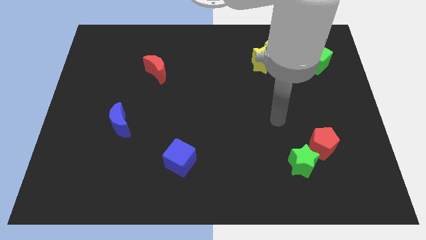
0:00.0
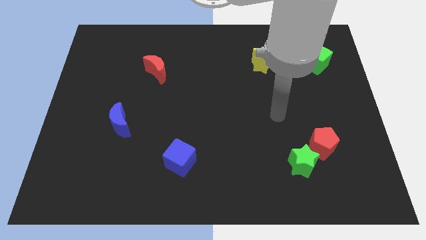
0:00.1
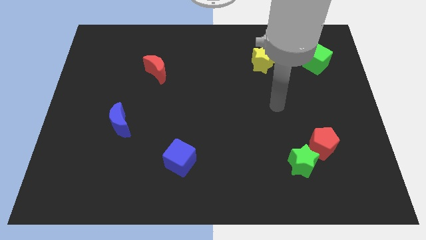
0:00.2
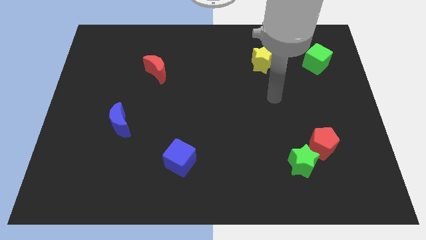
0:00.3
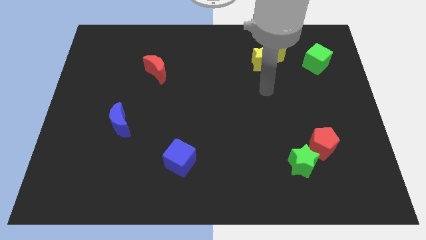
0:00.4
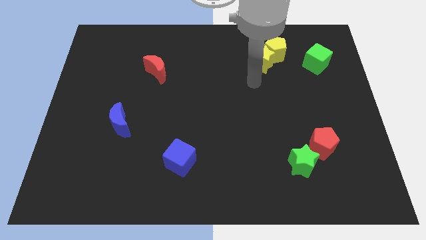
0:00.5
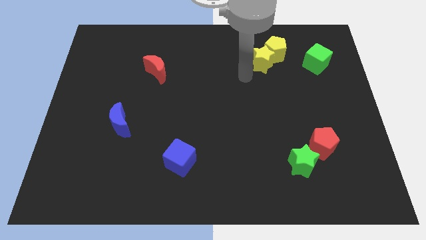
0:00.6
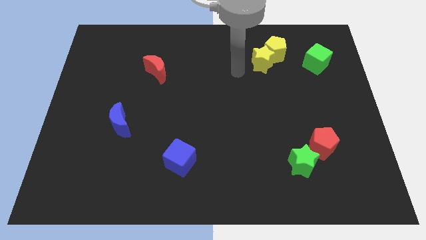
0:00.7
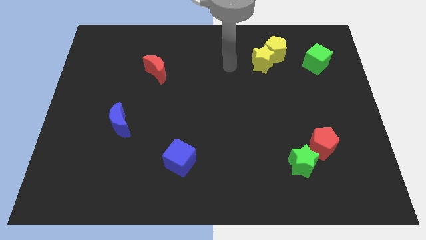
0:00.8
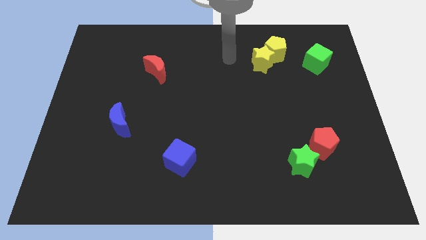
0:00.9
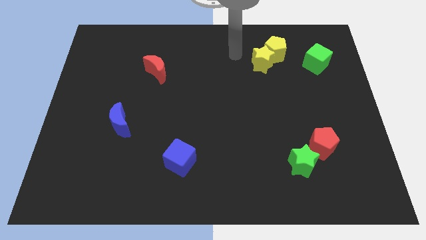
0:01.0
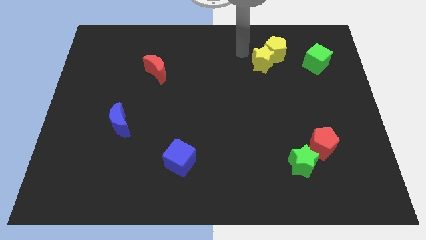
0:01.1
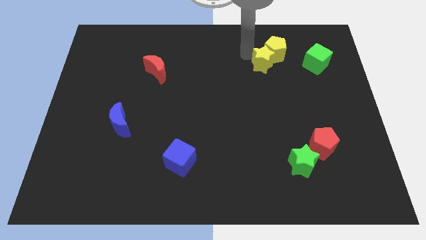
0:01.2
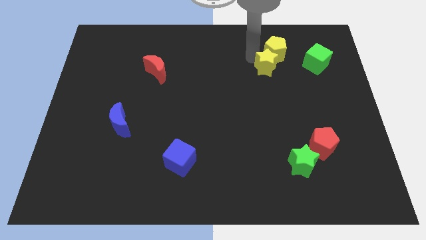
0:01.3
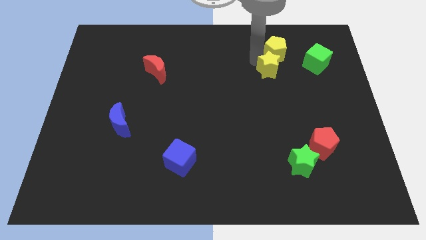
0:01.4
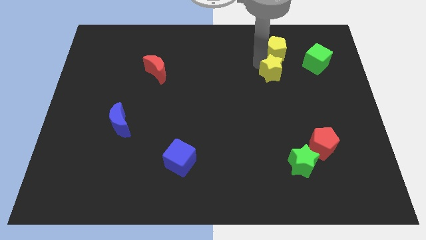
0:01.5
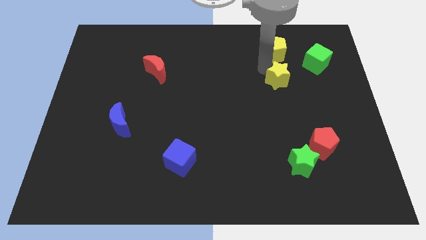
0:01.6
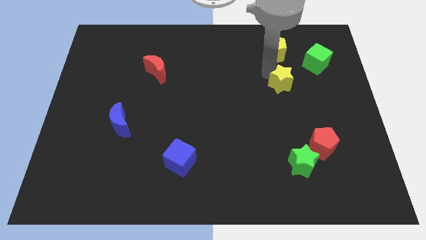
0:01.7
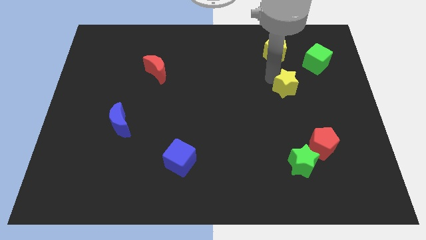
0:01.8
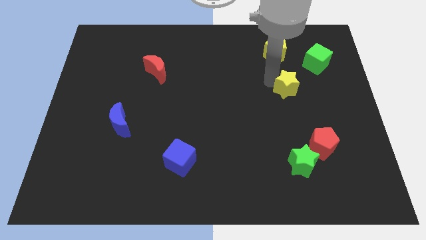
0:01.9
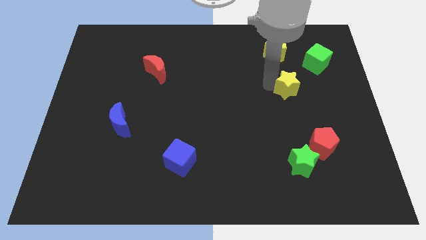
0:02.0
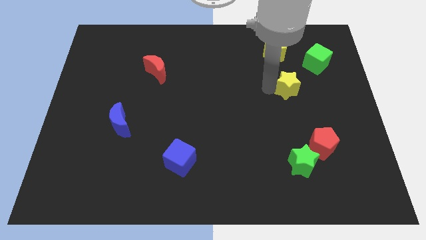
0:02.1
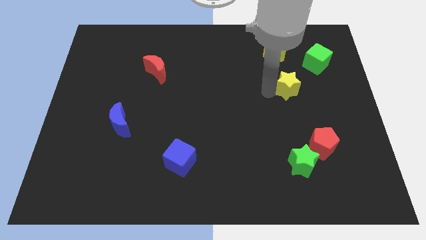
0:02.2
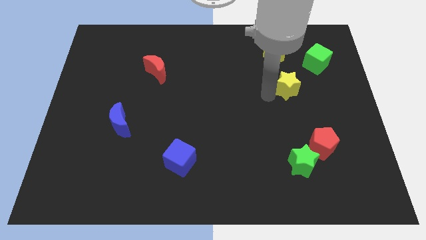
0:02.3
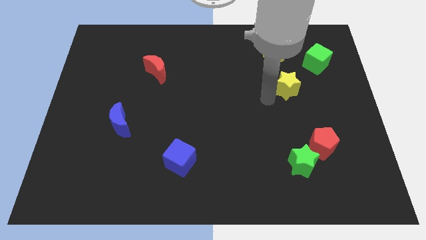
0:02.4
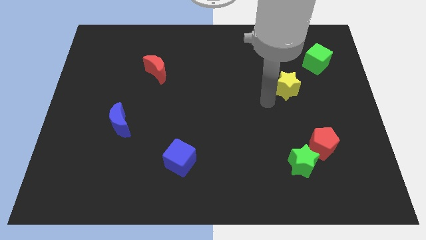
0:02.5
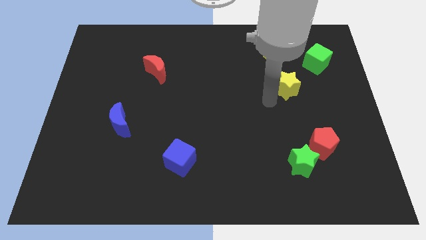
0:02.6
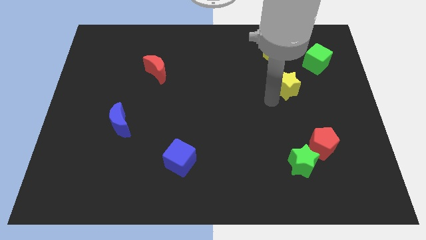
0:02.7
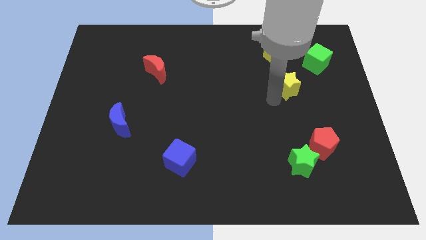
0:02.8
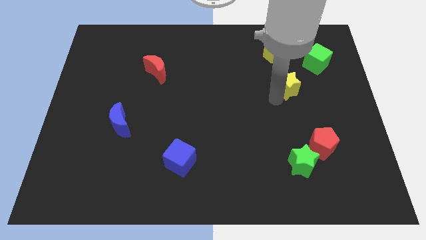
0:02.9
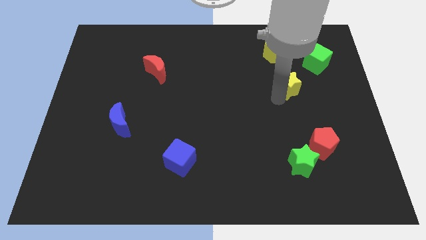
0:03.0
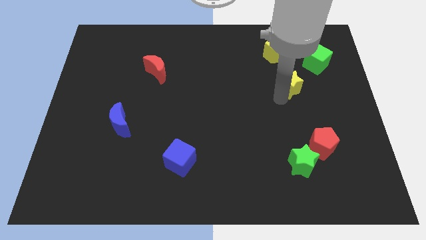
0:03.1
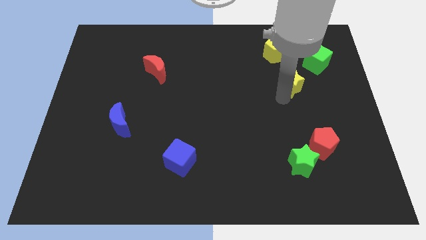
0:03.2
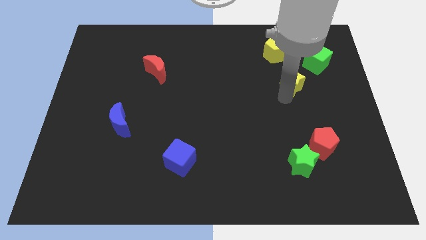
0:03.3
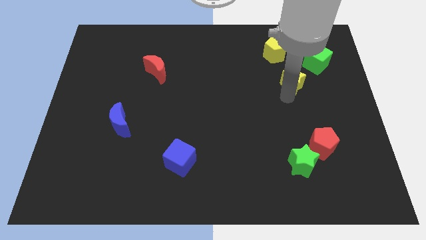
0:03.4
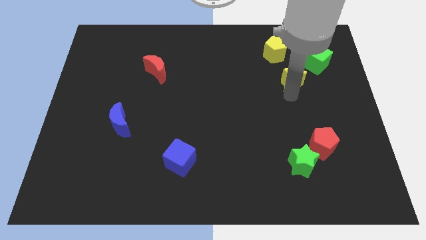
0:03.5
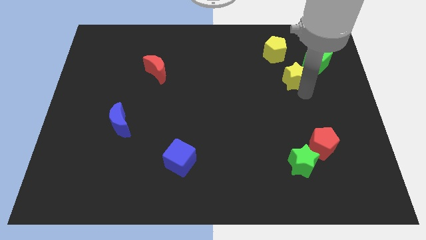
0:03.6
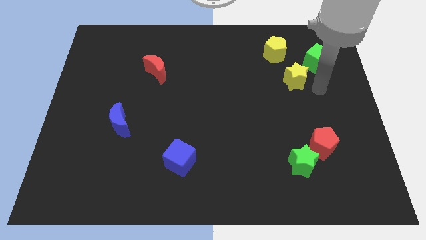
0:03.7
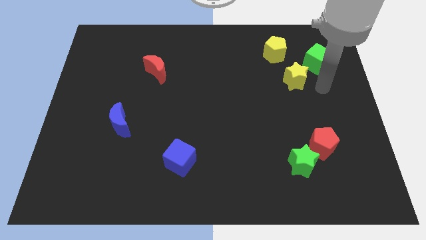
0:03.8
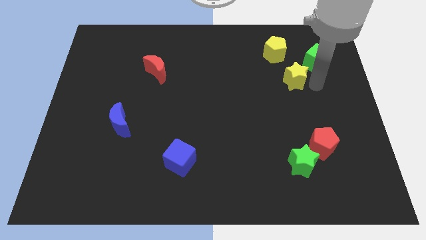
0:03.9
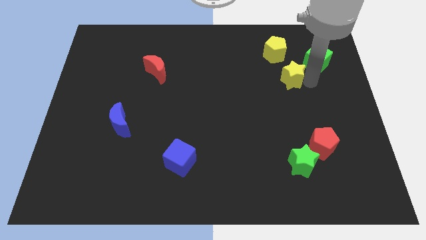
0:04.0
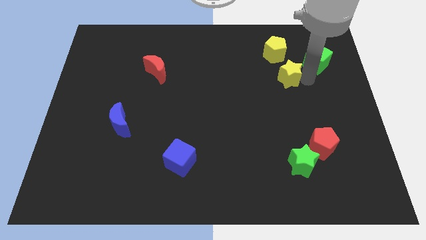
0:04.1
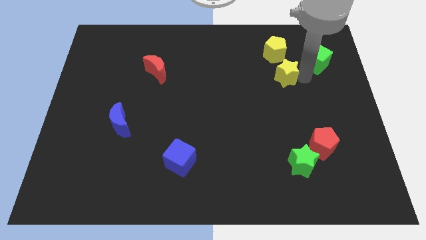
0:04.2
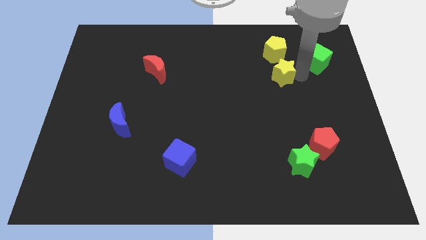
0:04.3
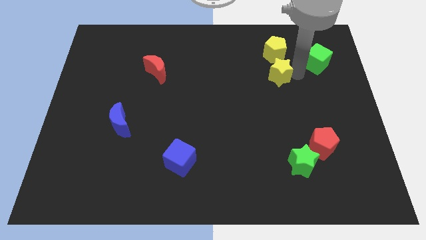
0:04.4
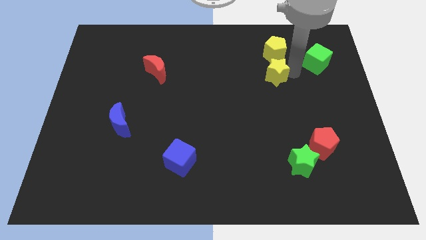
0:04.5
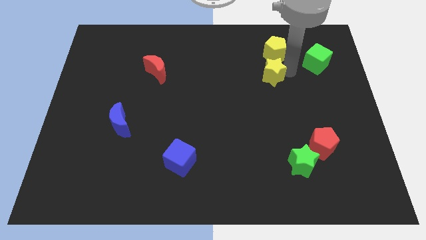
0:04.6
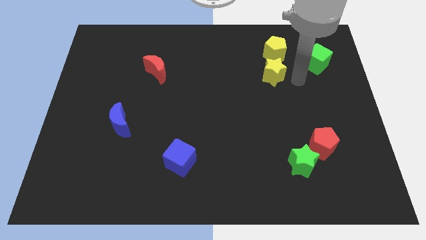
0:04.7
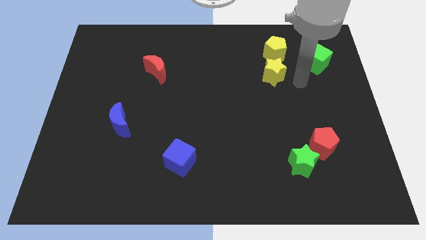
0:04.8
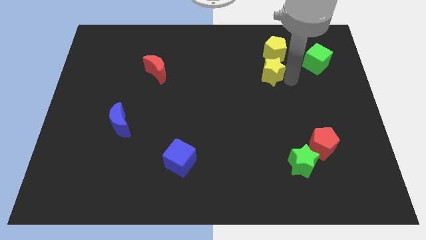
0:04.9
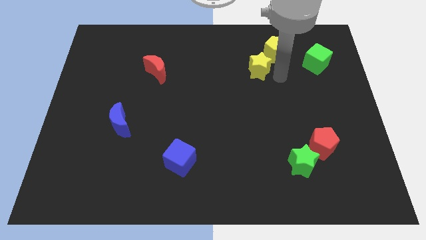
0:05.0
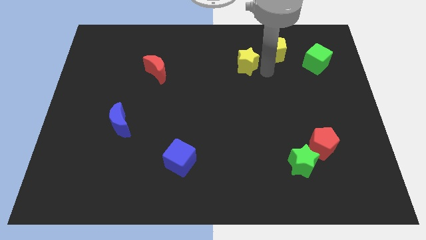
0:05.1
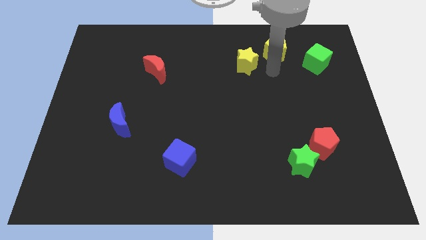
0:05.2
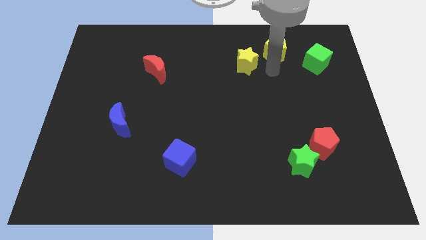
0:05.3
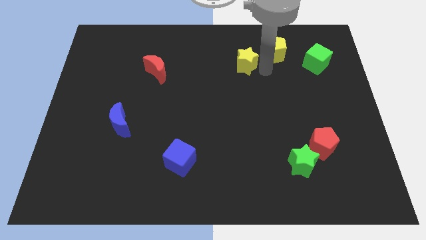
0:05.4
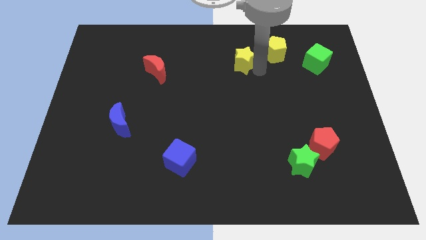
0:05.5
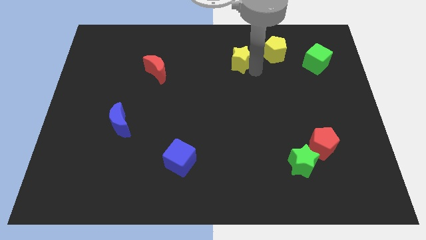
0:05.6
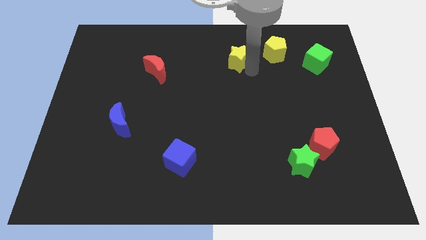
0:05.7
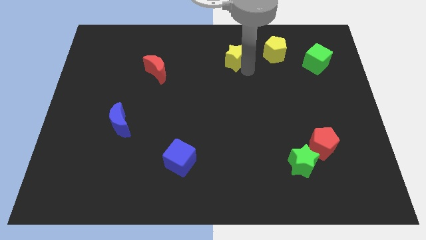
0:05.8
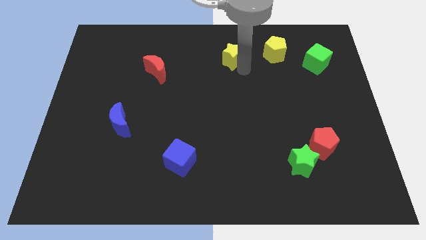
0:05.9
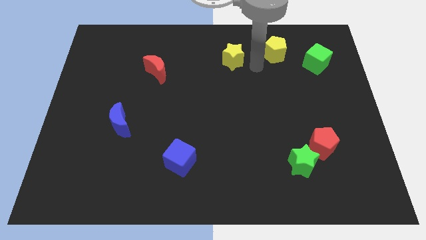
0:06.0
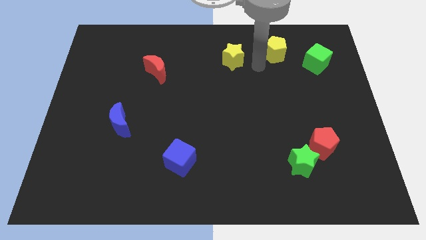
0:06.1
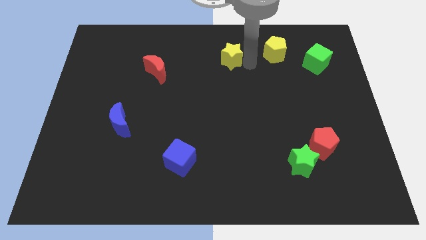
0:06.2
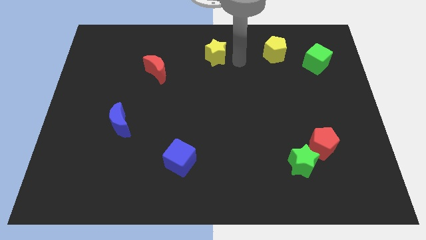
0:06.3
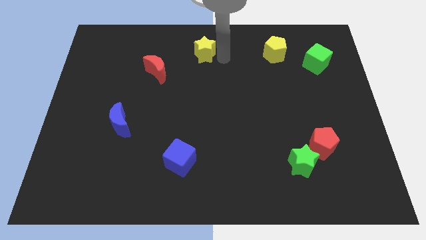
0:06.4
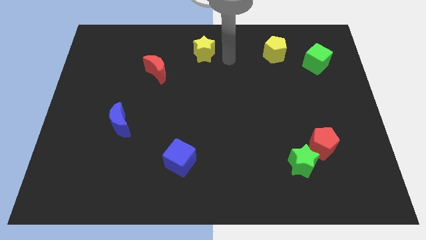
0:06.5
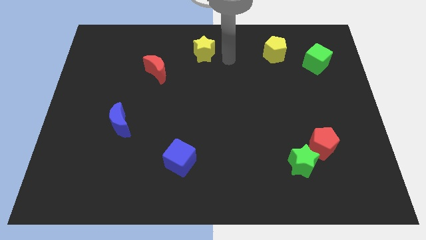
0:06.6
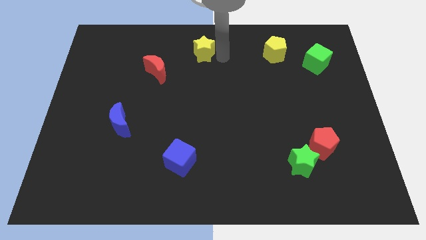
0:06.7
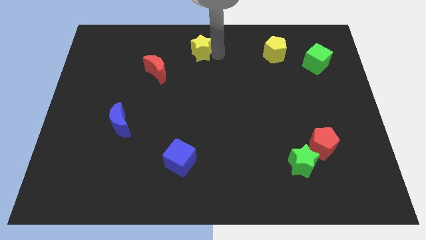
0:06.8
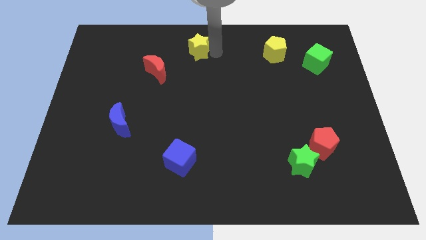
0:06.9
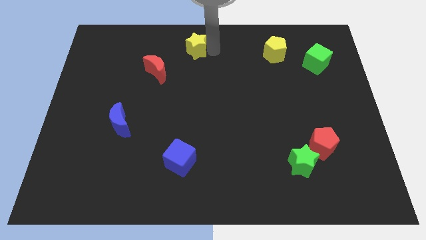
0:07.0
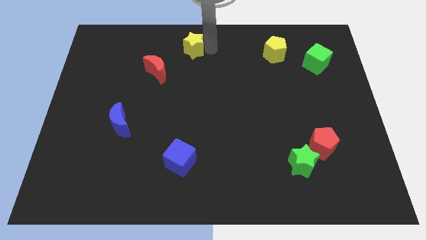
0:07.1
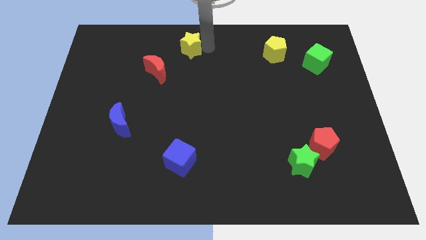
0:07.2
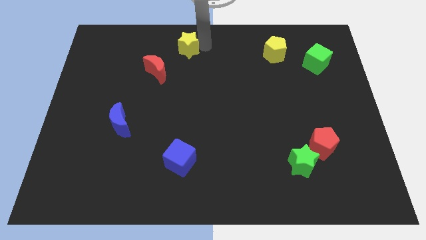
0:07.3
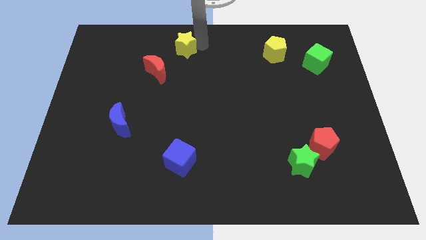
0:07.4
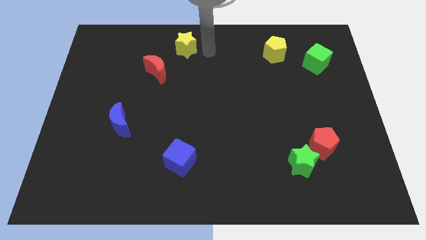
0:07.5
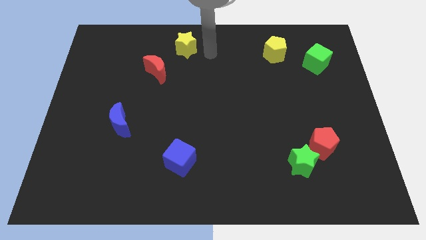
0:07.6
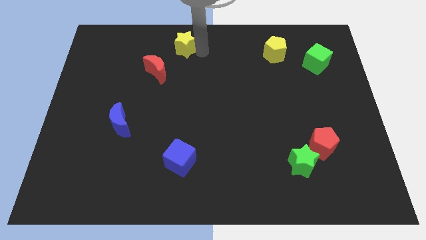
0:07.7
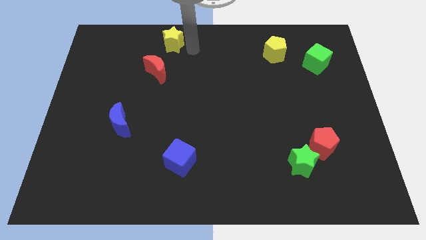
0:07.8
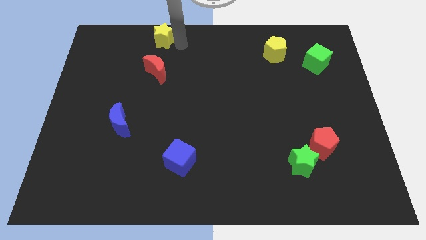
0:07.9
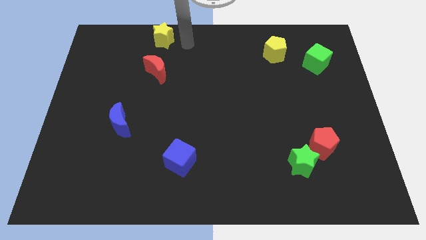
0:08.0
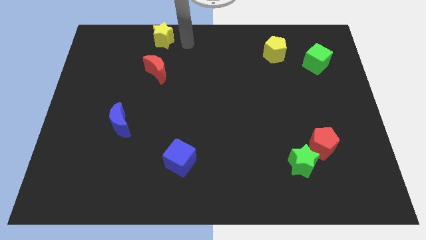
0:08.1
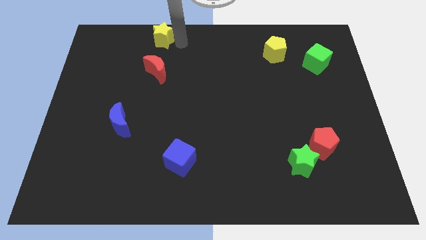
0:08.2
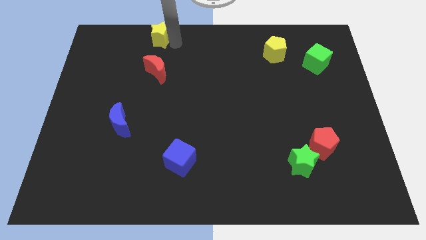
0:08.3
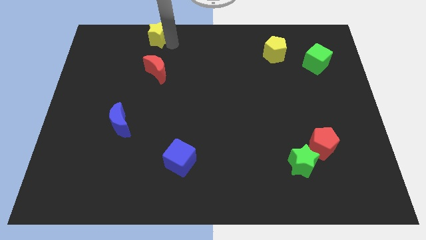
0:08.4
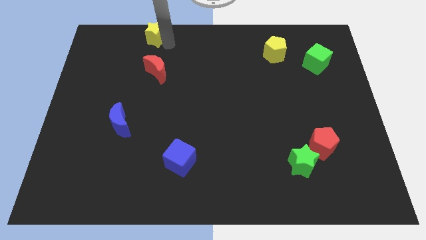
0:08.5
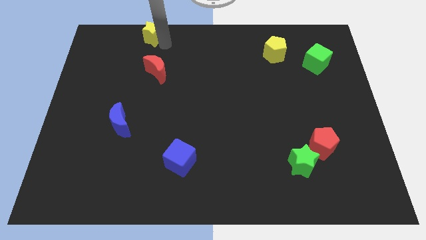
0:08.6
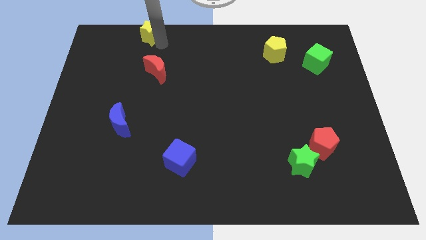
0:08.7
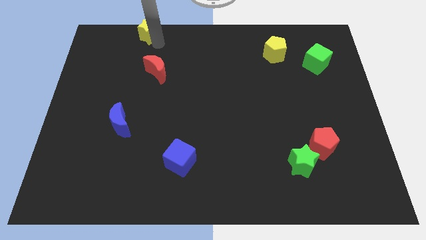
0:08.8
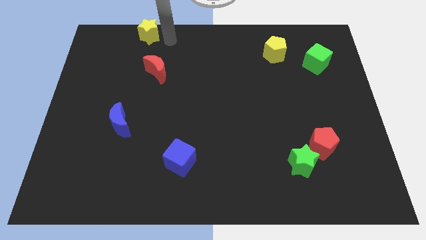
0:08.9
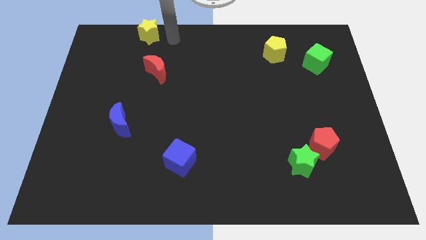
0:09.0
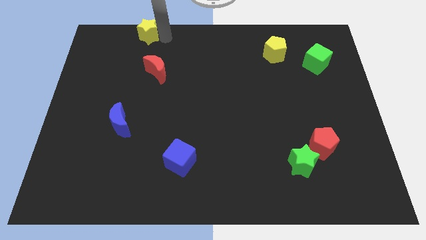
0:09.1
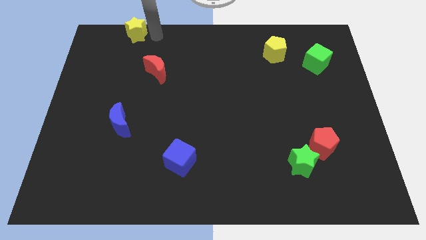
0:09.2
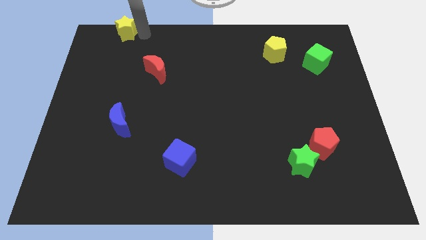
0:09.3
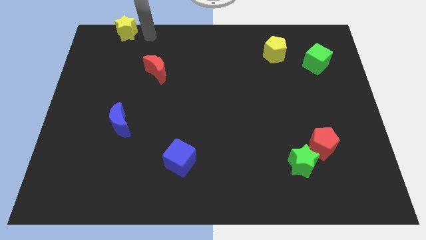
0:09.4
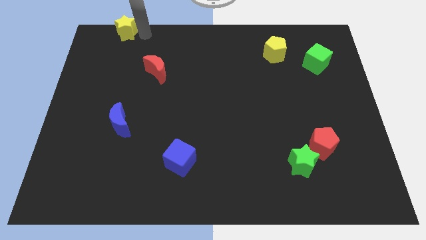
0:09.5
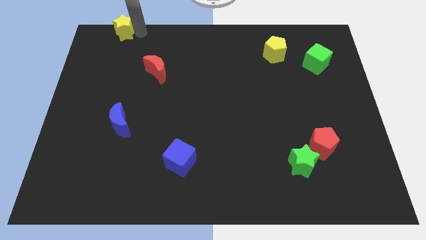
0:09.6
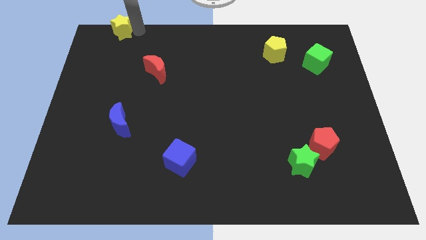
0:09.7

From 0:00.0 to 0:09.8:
put the yellow star to the top left corner
